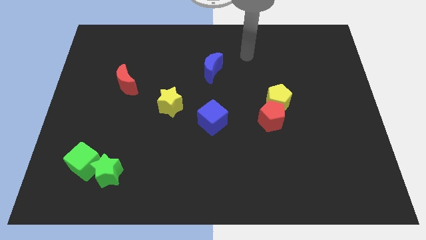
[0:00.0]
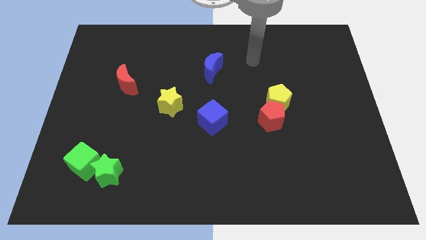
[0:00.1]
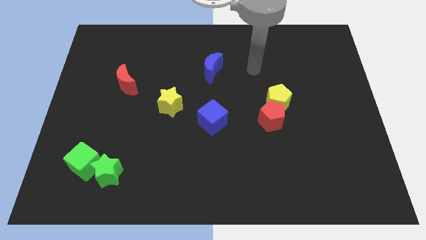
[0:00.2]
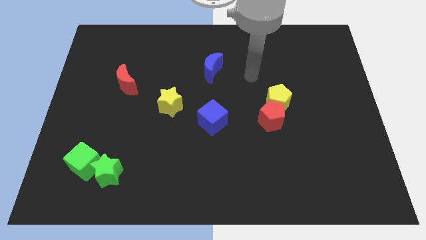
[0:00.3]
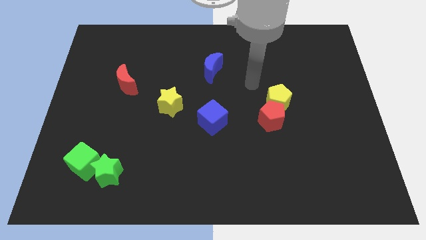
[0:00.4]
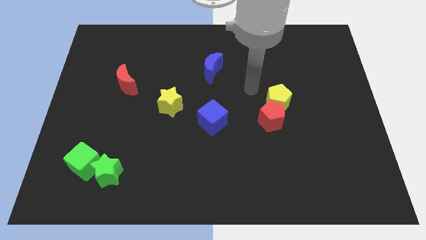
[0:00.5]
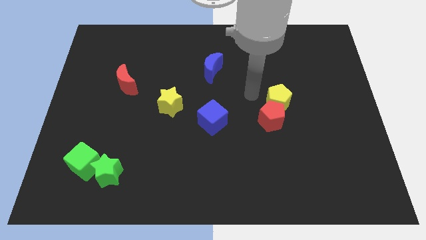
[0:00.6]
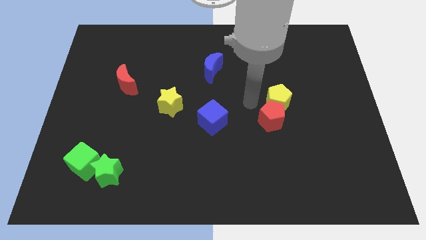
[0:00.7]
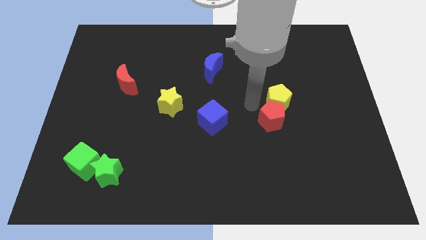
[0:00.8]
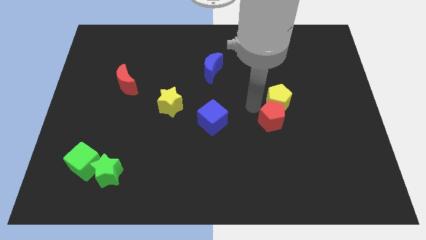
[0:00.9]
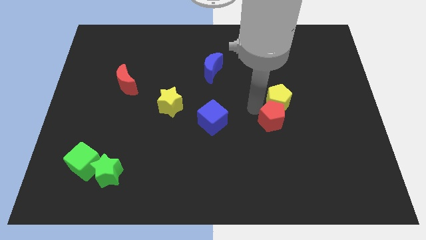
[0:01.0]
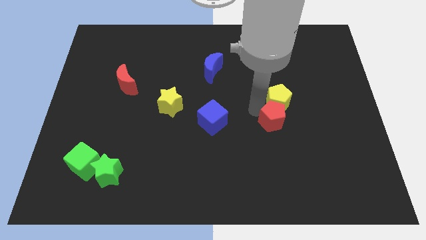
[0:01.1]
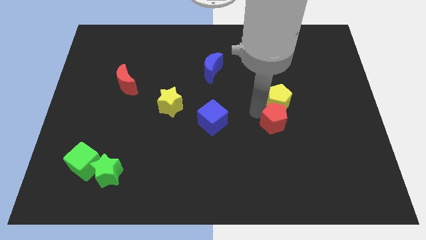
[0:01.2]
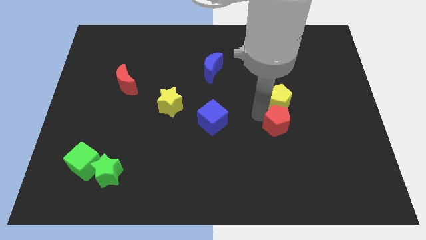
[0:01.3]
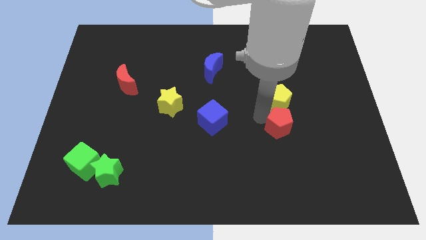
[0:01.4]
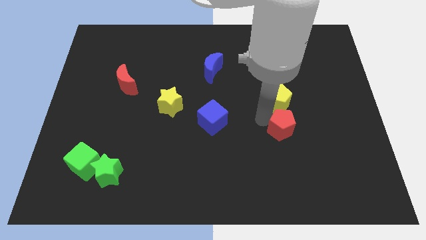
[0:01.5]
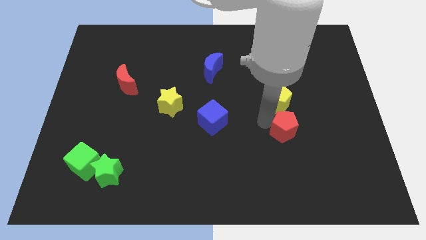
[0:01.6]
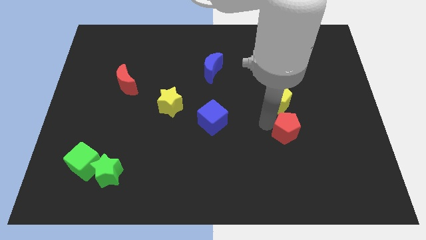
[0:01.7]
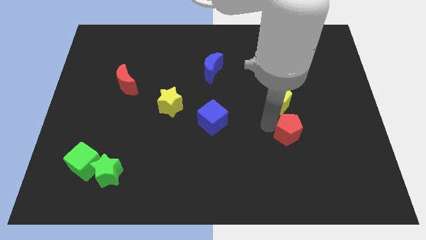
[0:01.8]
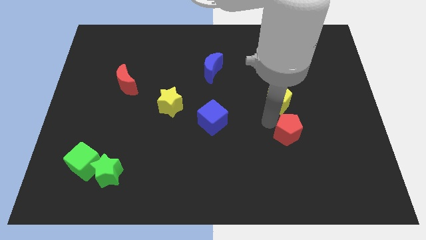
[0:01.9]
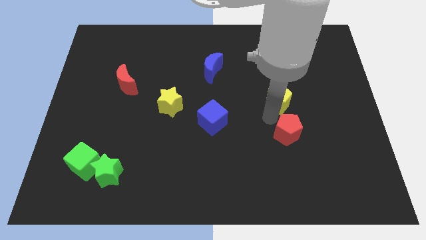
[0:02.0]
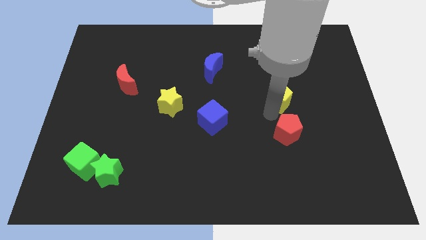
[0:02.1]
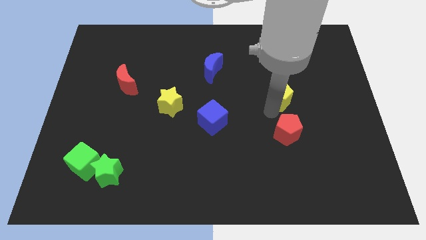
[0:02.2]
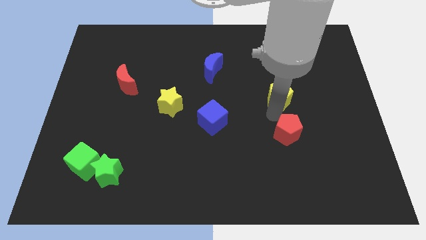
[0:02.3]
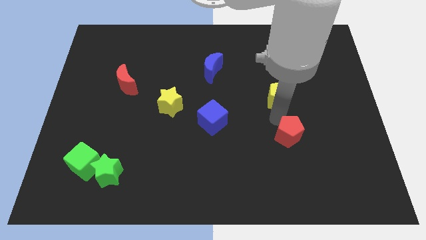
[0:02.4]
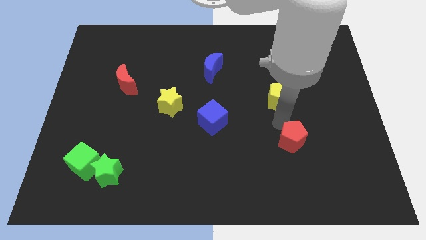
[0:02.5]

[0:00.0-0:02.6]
slide the red pentagon down and to the right diagonally slightly

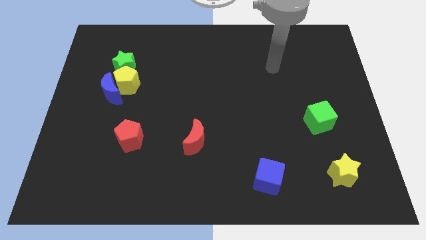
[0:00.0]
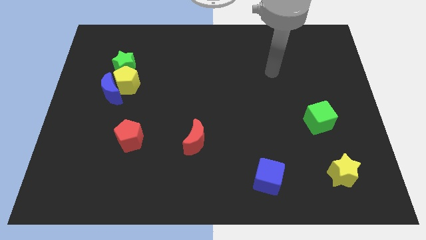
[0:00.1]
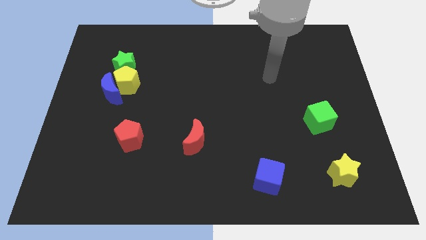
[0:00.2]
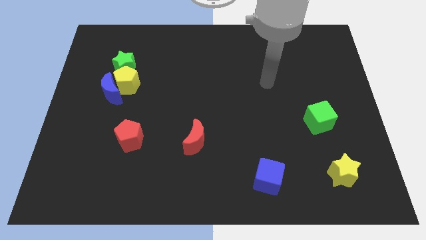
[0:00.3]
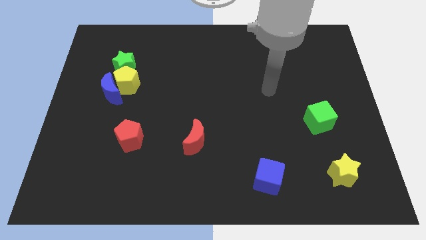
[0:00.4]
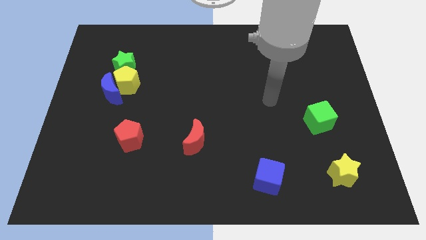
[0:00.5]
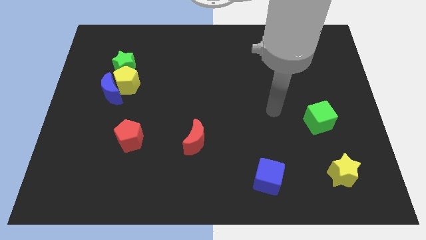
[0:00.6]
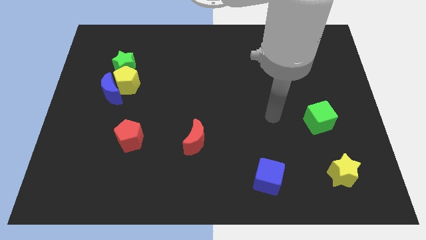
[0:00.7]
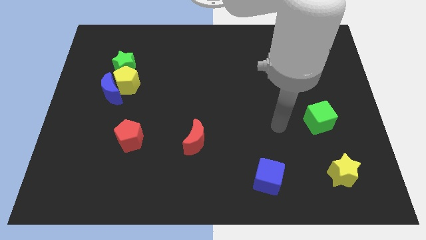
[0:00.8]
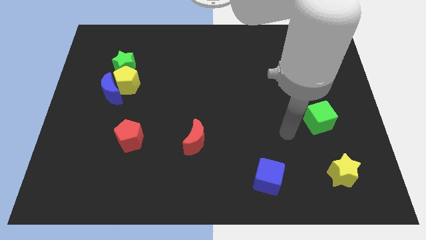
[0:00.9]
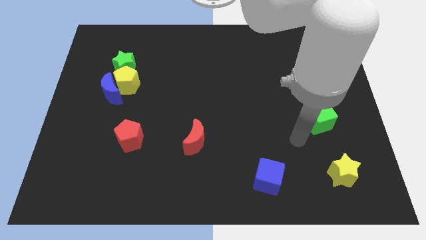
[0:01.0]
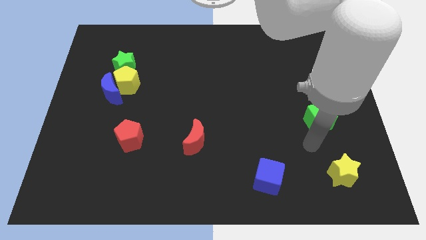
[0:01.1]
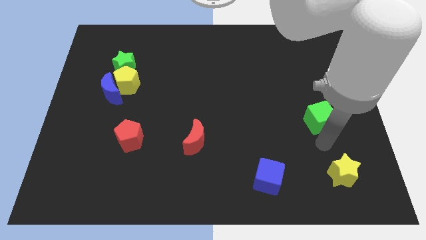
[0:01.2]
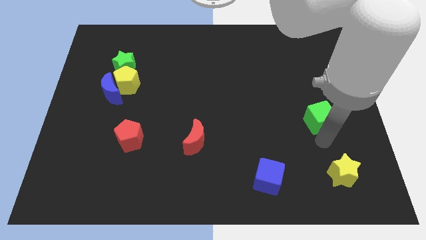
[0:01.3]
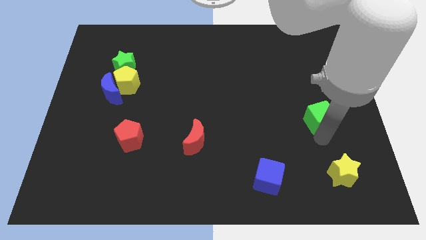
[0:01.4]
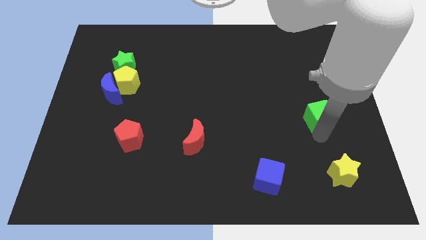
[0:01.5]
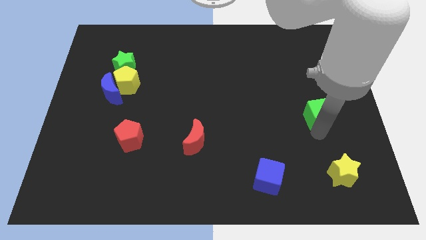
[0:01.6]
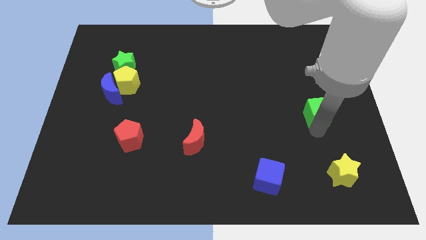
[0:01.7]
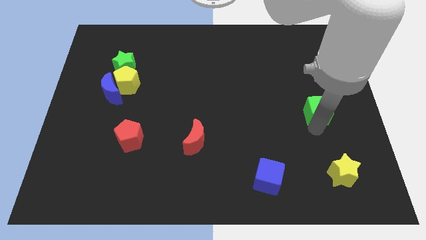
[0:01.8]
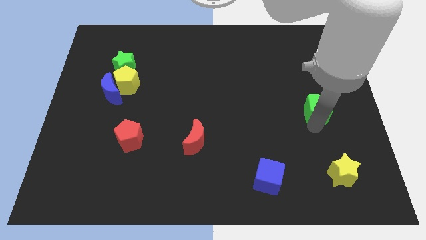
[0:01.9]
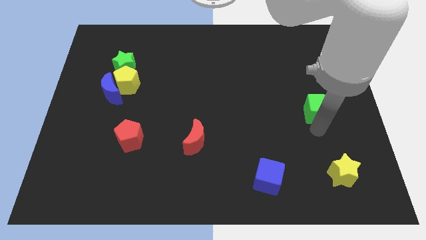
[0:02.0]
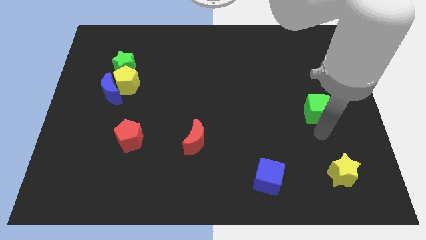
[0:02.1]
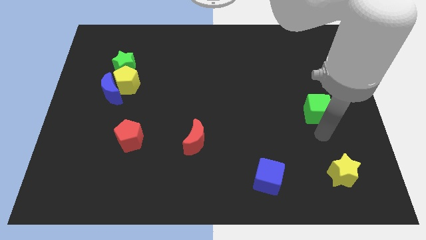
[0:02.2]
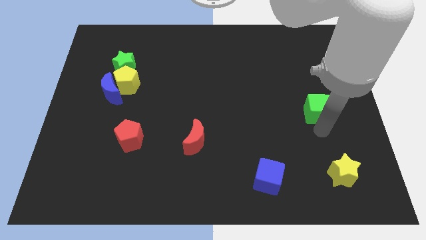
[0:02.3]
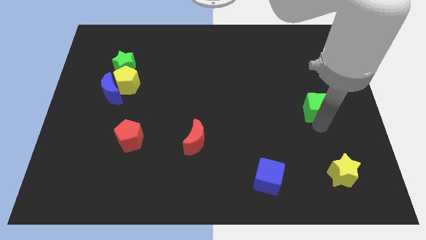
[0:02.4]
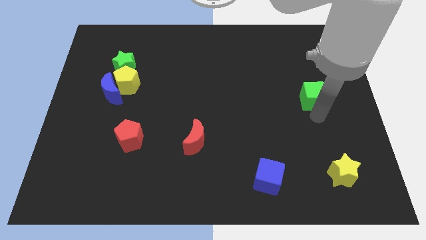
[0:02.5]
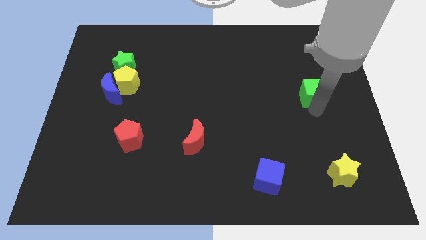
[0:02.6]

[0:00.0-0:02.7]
slightly slide the green cube up

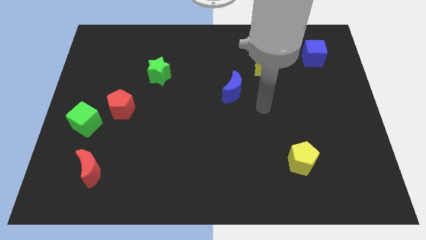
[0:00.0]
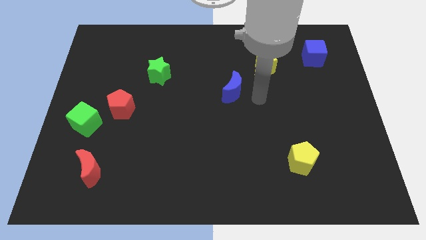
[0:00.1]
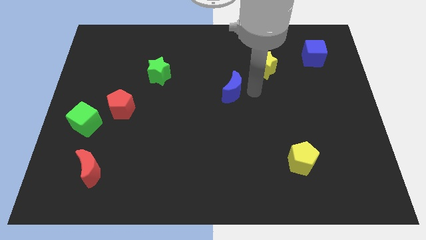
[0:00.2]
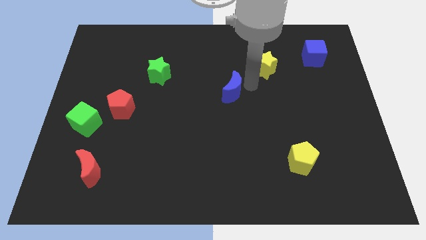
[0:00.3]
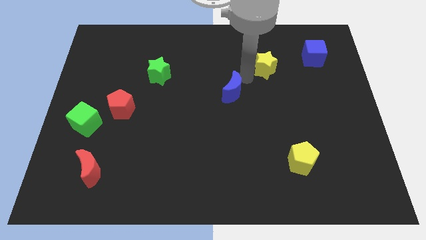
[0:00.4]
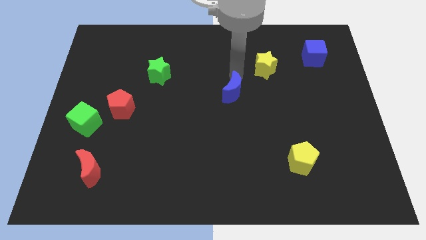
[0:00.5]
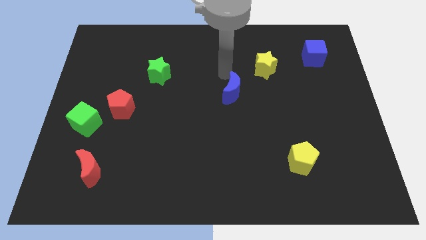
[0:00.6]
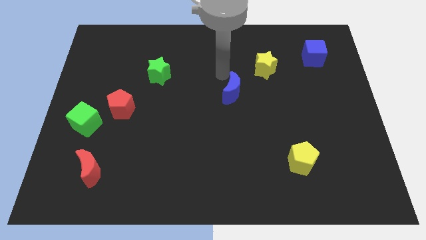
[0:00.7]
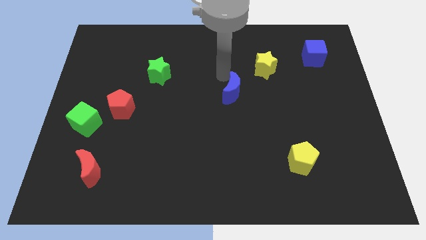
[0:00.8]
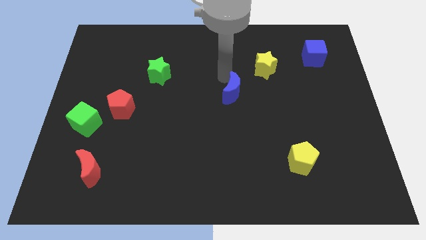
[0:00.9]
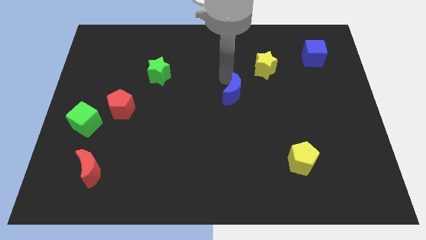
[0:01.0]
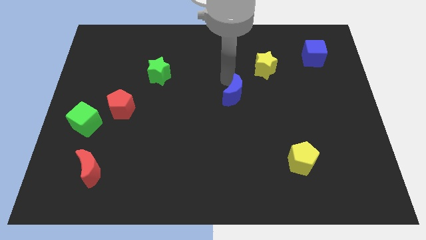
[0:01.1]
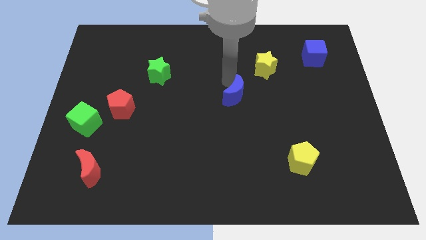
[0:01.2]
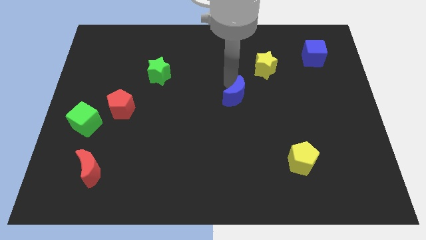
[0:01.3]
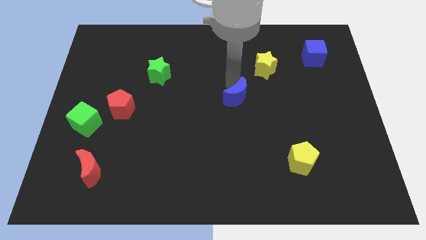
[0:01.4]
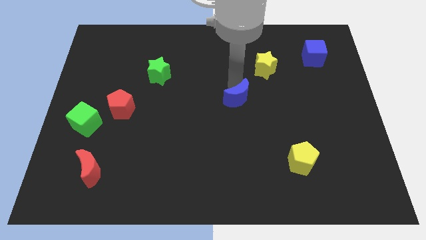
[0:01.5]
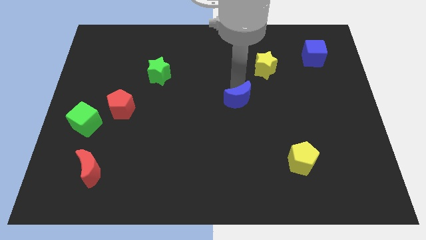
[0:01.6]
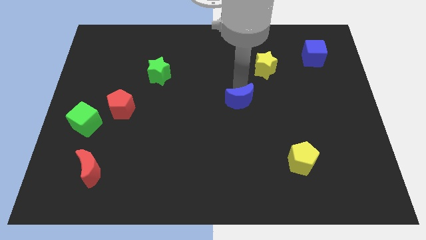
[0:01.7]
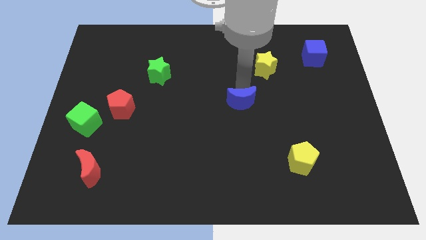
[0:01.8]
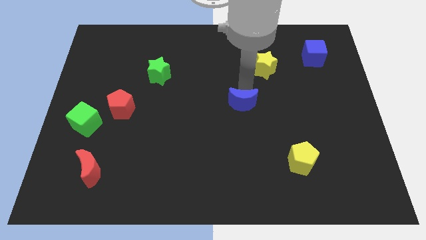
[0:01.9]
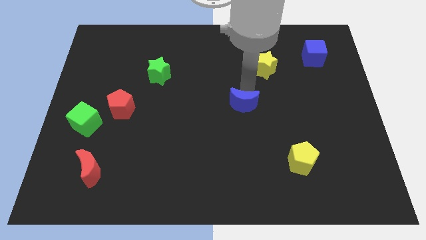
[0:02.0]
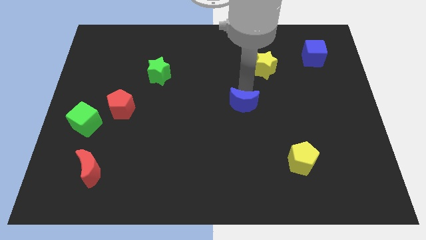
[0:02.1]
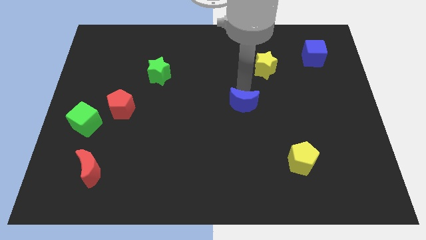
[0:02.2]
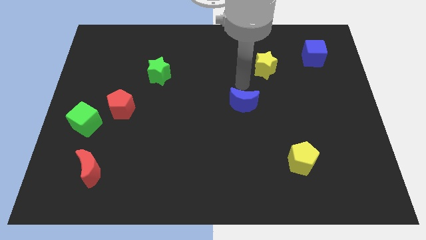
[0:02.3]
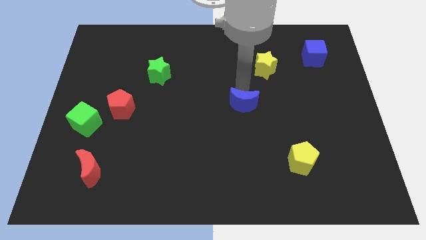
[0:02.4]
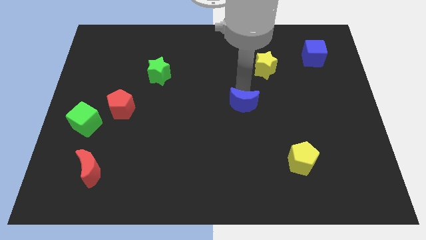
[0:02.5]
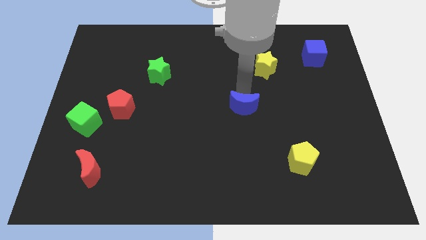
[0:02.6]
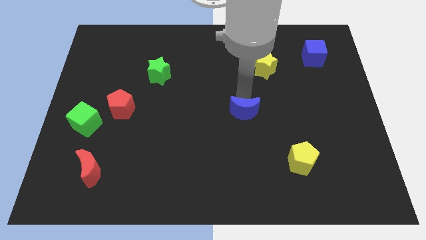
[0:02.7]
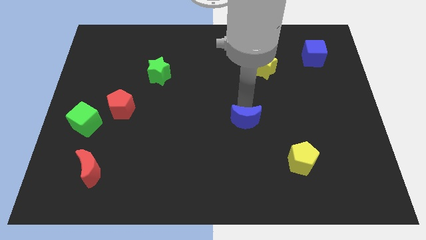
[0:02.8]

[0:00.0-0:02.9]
push the blue moon slightly downwards
